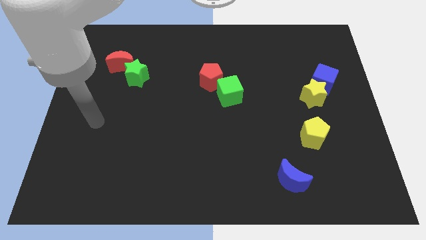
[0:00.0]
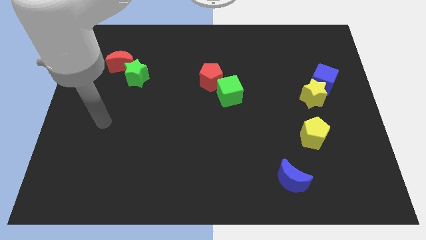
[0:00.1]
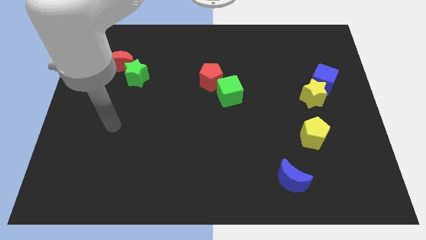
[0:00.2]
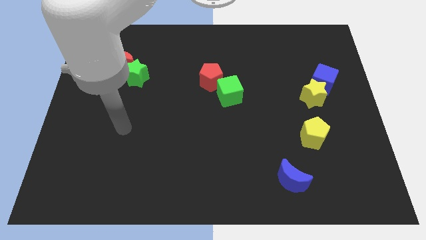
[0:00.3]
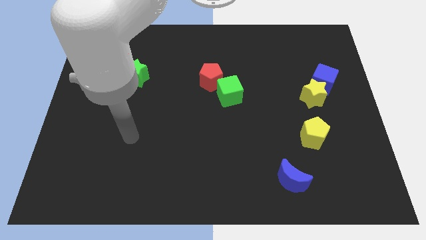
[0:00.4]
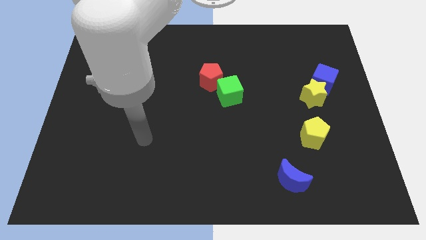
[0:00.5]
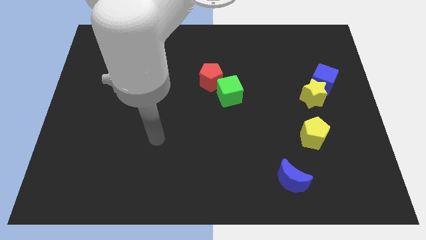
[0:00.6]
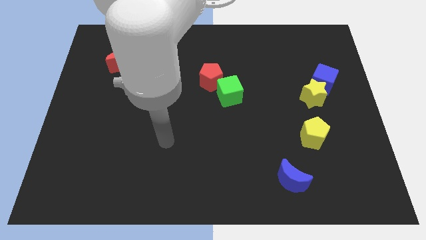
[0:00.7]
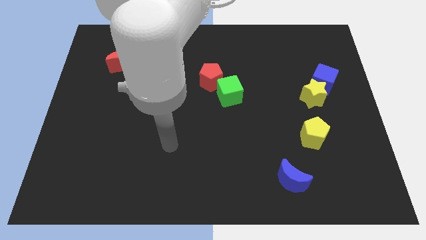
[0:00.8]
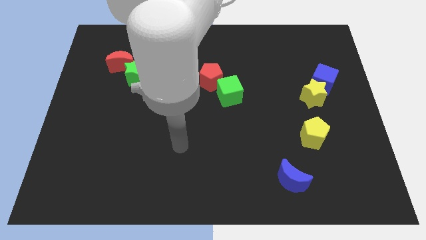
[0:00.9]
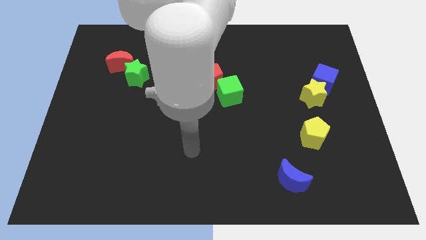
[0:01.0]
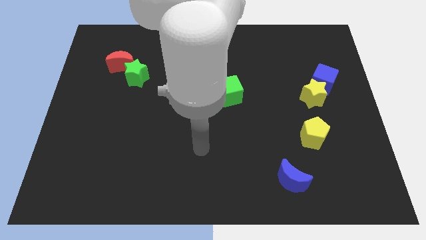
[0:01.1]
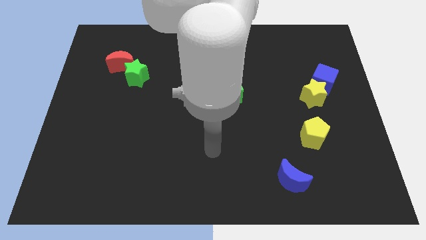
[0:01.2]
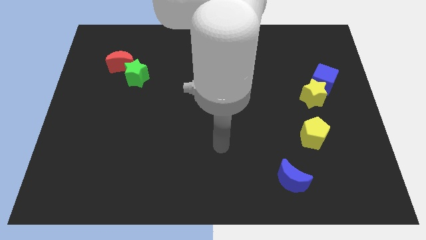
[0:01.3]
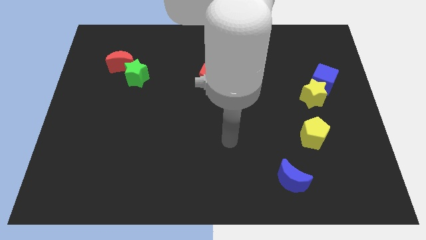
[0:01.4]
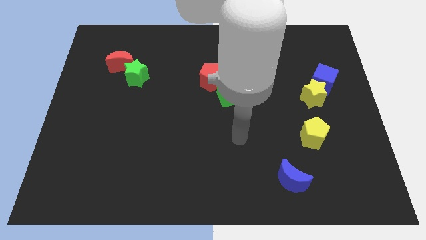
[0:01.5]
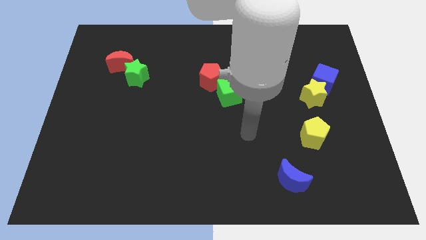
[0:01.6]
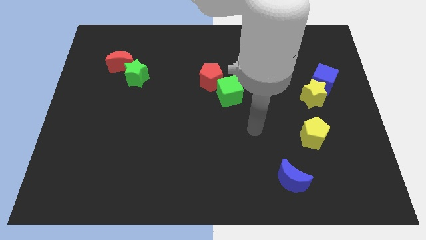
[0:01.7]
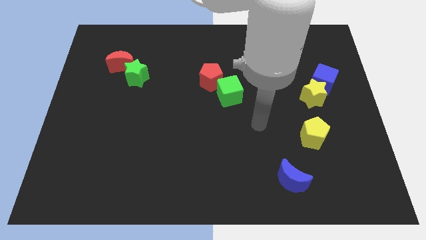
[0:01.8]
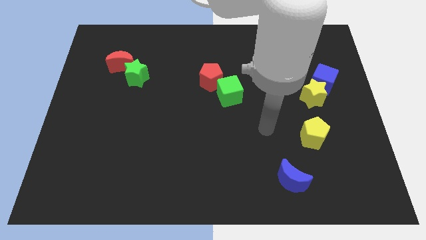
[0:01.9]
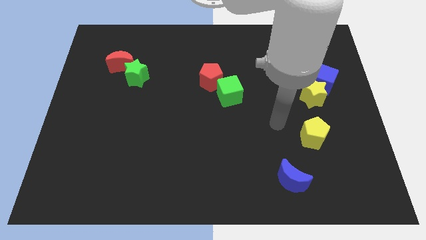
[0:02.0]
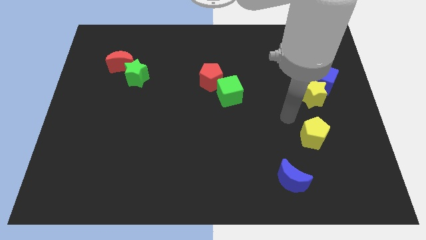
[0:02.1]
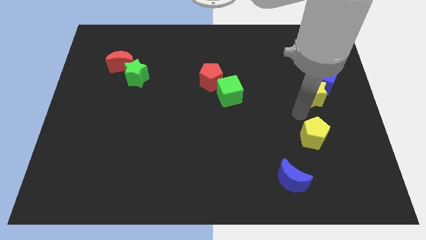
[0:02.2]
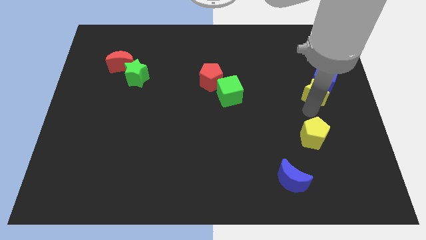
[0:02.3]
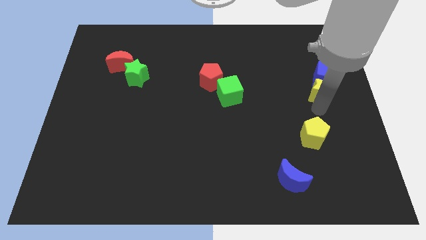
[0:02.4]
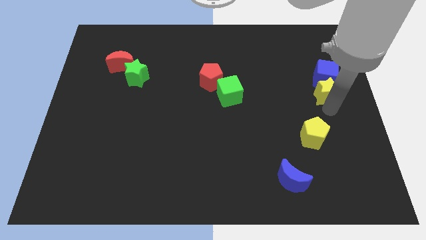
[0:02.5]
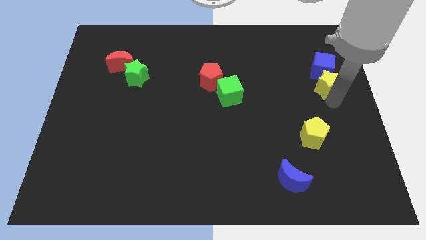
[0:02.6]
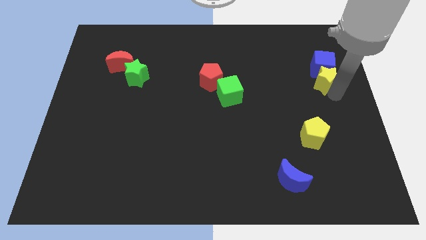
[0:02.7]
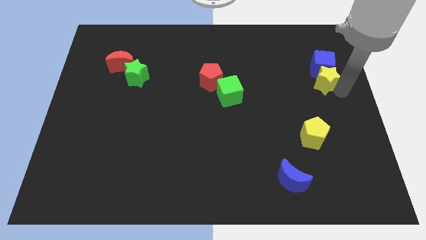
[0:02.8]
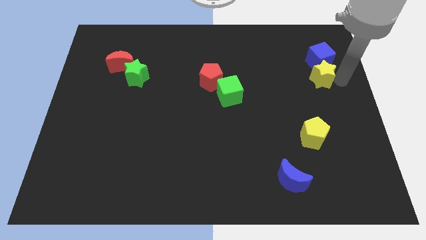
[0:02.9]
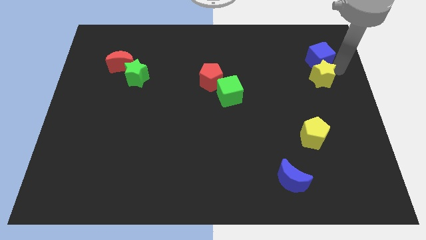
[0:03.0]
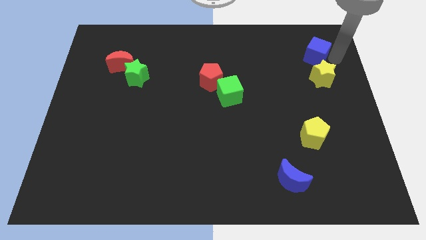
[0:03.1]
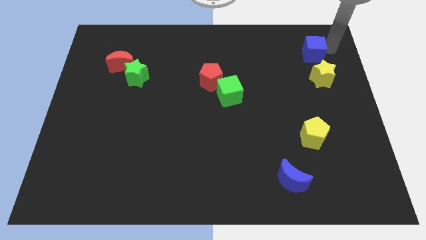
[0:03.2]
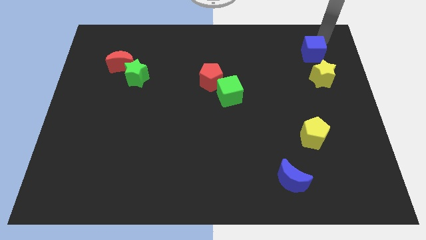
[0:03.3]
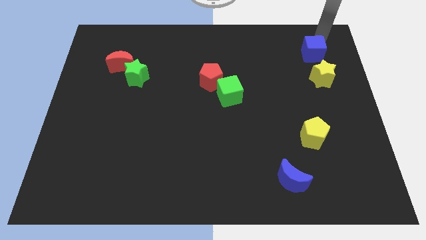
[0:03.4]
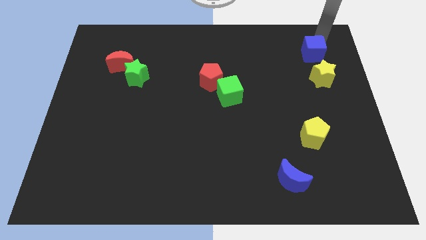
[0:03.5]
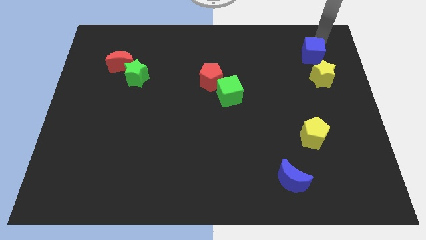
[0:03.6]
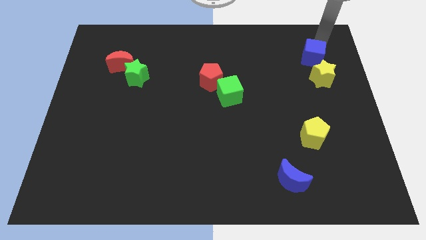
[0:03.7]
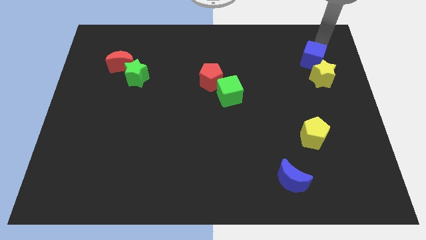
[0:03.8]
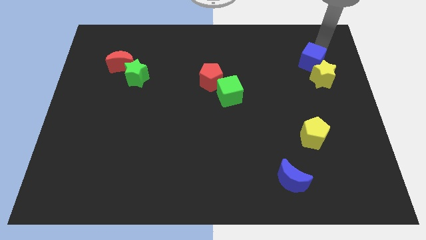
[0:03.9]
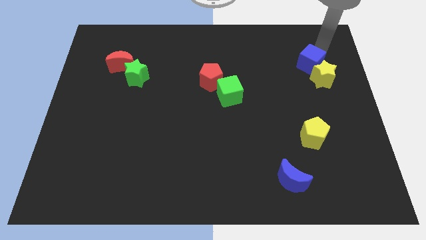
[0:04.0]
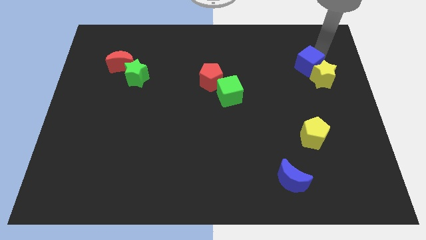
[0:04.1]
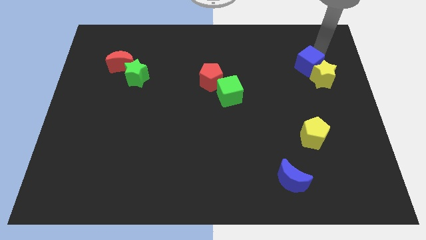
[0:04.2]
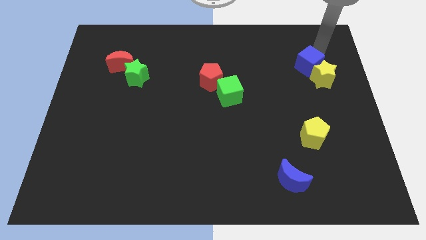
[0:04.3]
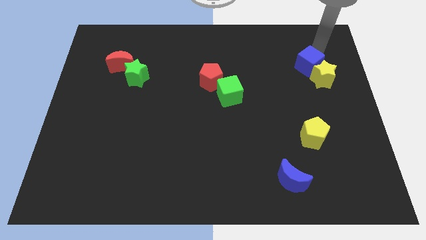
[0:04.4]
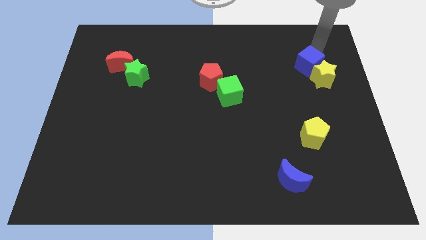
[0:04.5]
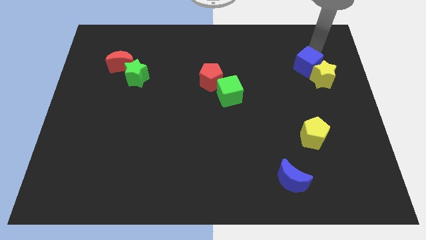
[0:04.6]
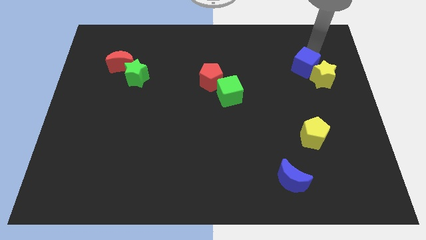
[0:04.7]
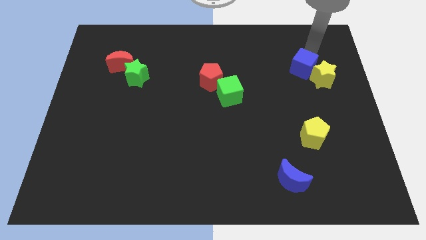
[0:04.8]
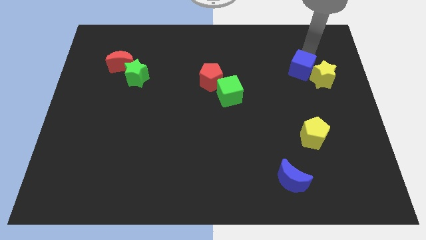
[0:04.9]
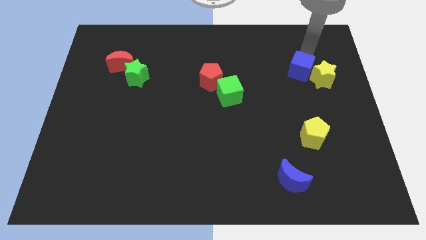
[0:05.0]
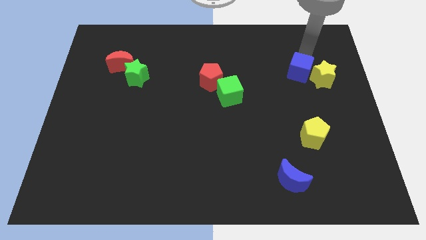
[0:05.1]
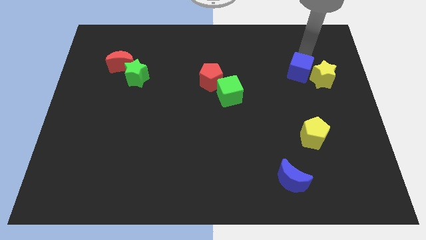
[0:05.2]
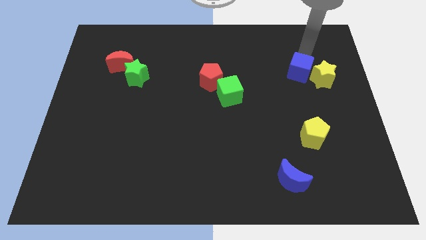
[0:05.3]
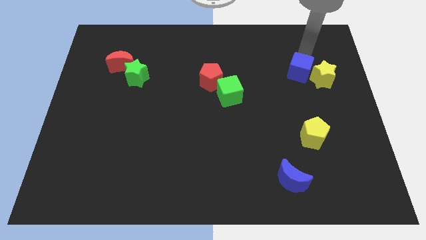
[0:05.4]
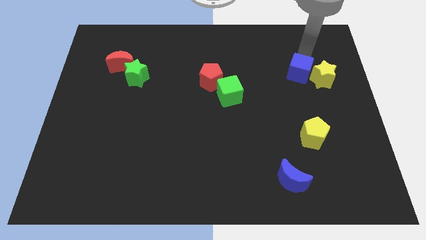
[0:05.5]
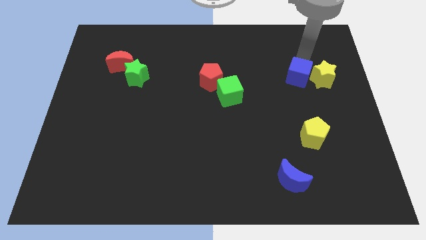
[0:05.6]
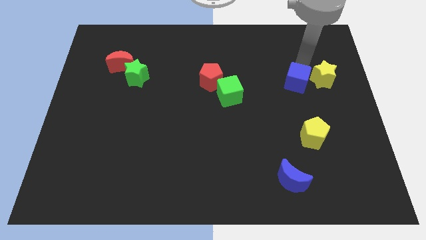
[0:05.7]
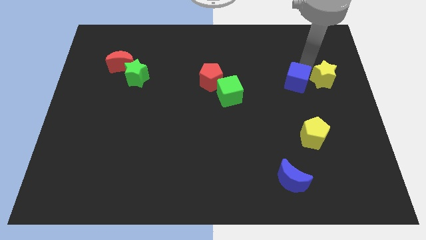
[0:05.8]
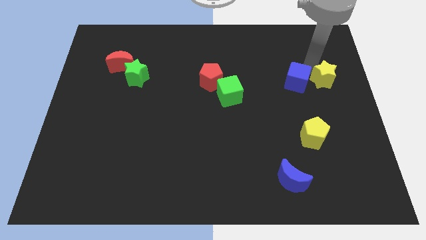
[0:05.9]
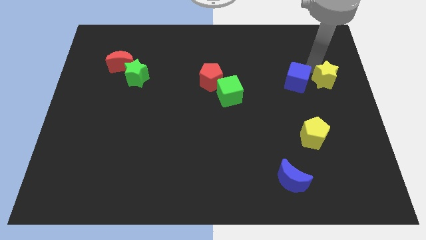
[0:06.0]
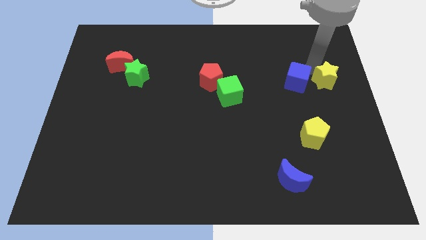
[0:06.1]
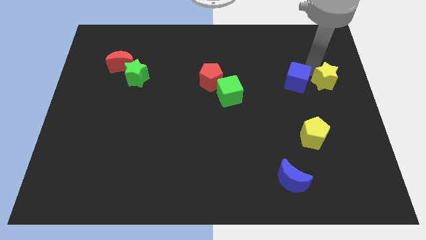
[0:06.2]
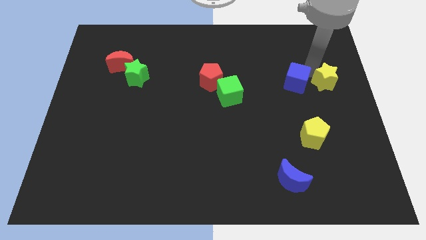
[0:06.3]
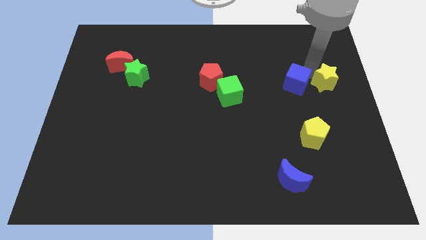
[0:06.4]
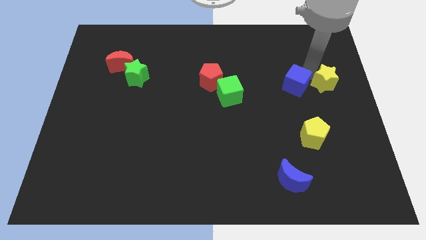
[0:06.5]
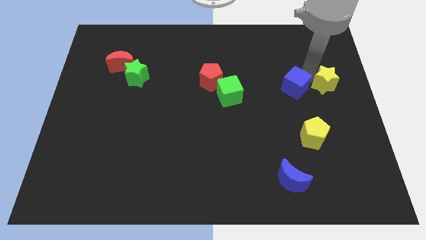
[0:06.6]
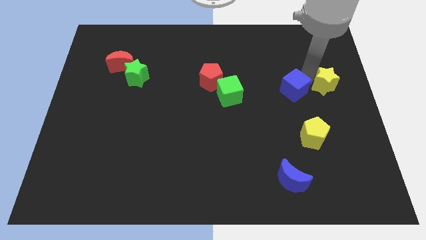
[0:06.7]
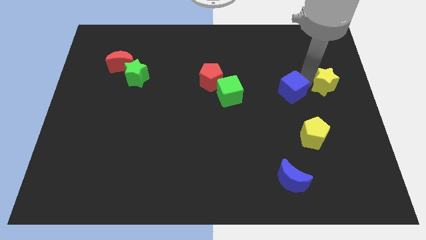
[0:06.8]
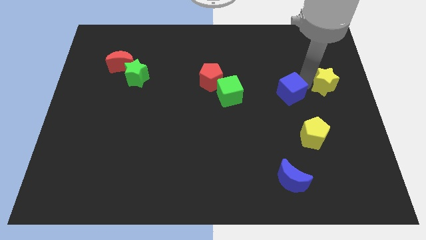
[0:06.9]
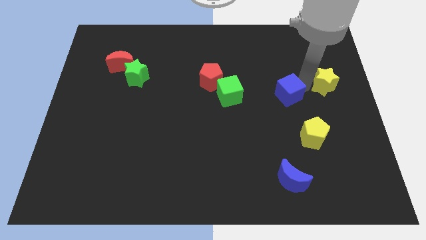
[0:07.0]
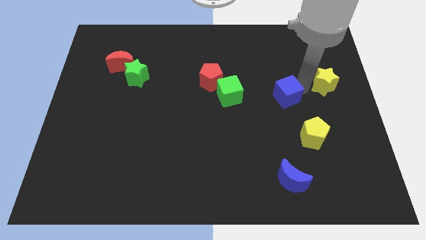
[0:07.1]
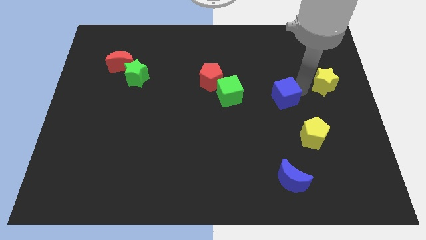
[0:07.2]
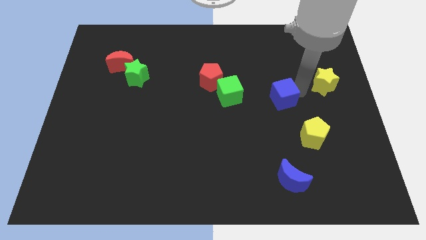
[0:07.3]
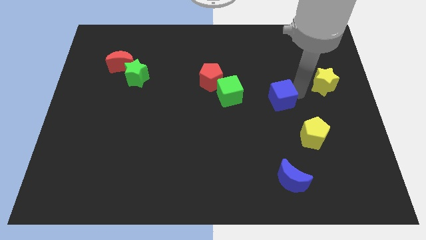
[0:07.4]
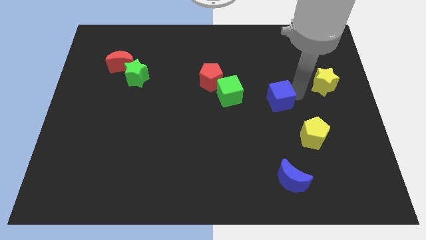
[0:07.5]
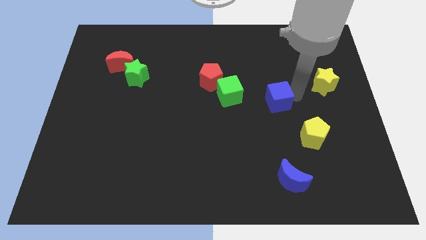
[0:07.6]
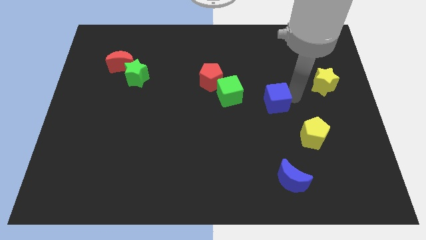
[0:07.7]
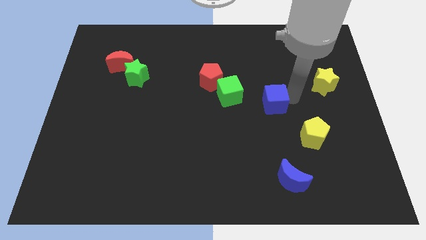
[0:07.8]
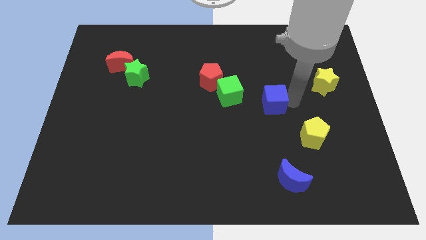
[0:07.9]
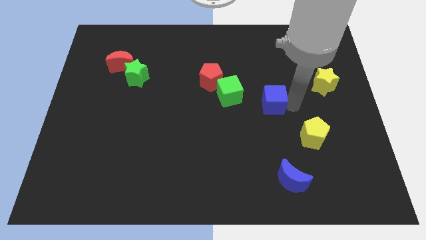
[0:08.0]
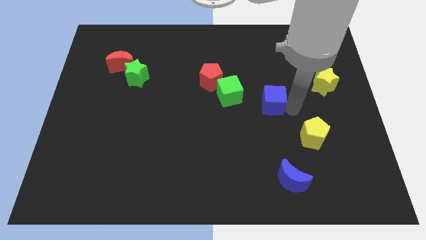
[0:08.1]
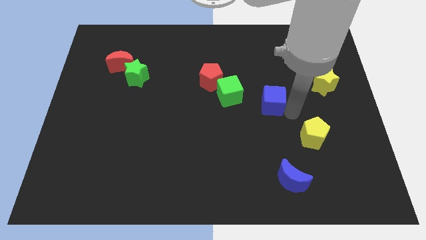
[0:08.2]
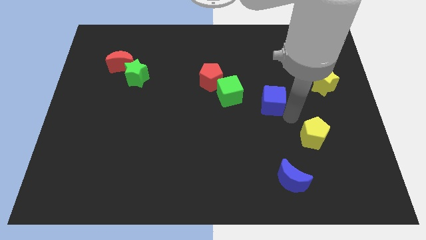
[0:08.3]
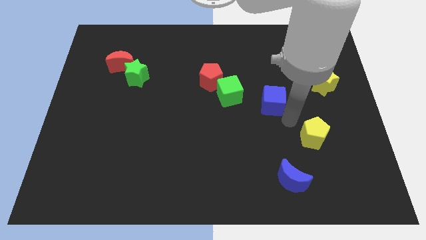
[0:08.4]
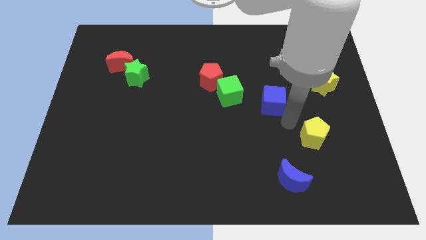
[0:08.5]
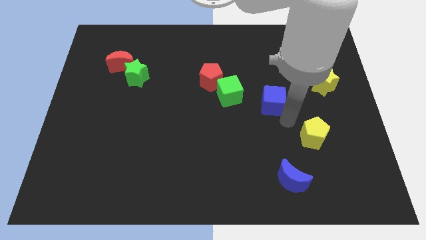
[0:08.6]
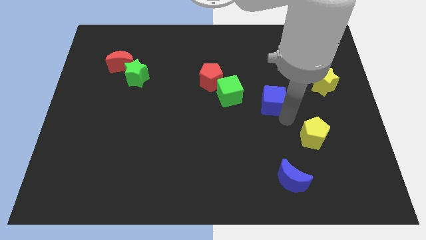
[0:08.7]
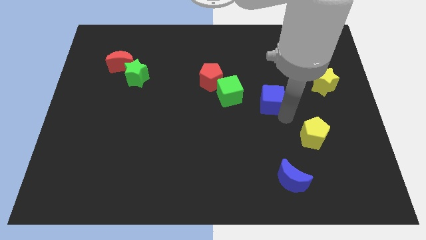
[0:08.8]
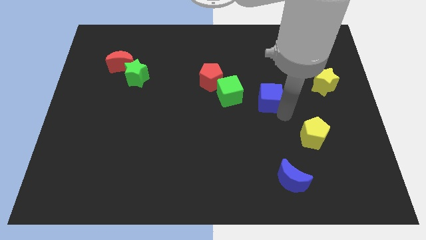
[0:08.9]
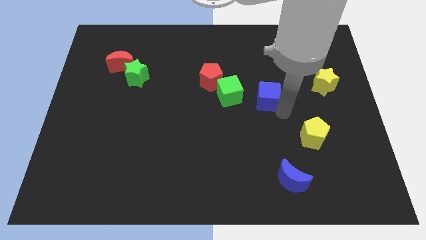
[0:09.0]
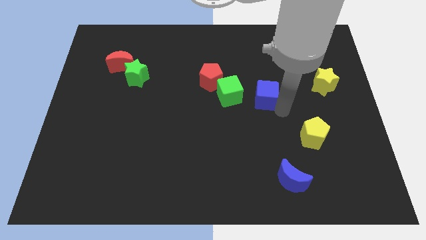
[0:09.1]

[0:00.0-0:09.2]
push the blue cube to the middle
